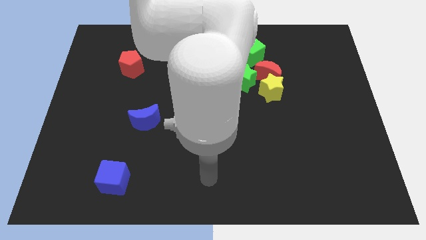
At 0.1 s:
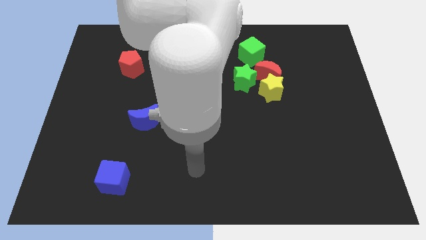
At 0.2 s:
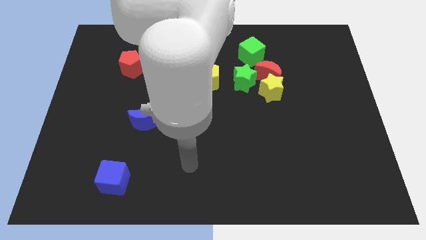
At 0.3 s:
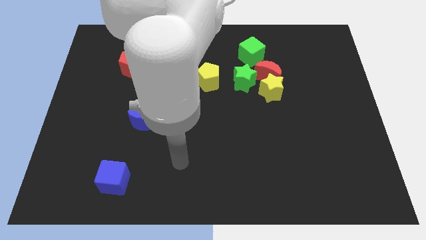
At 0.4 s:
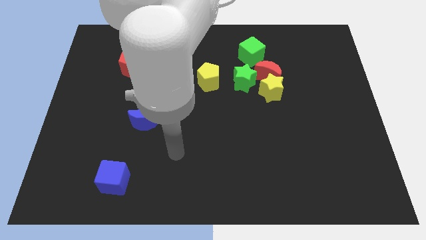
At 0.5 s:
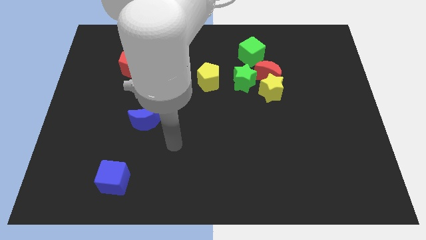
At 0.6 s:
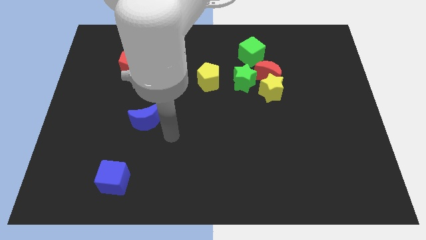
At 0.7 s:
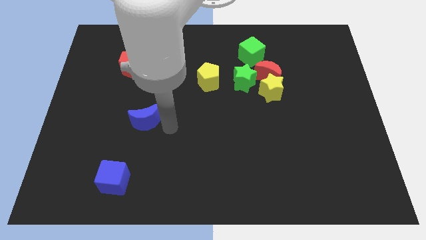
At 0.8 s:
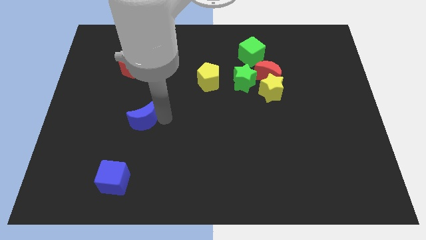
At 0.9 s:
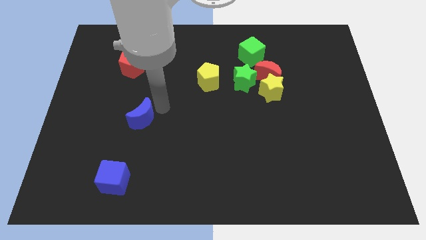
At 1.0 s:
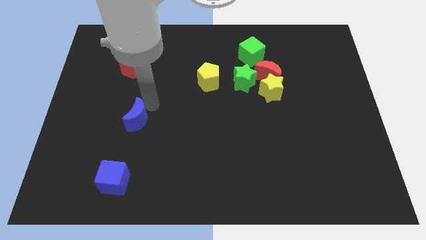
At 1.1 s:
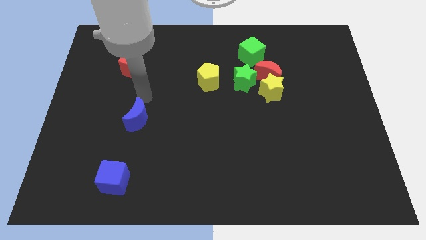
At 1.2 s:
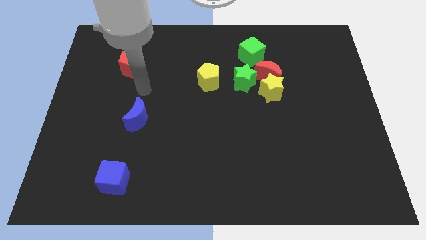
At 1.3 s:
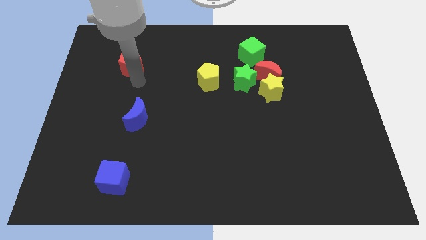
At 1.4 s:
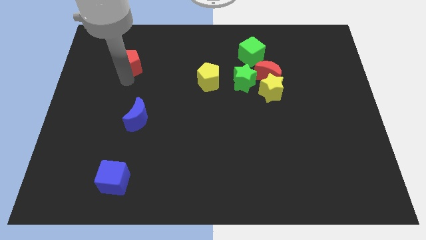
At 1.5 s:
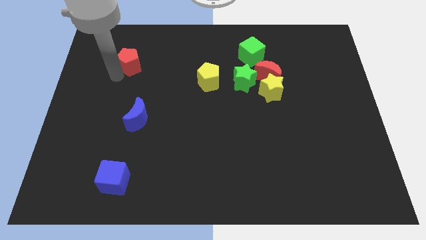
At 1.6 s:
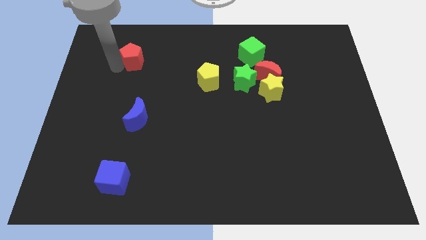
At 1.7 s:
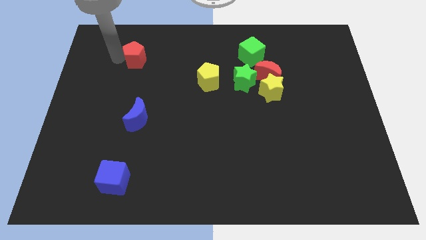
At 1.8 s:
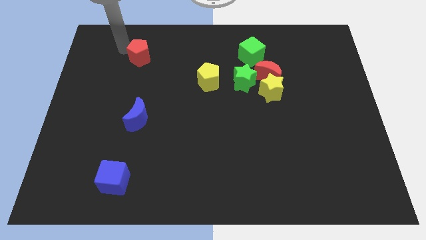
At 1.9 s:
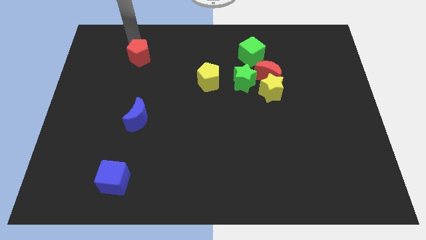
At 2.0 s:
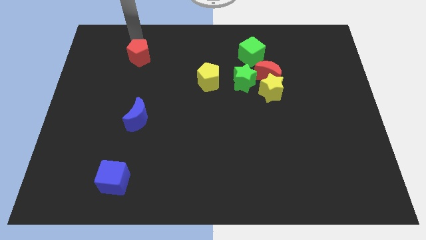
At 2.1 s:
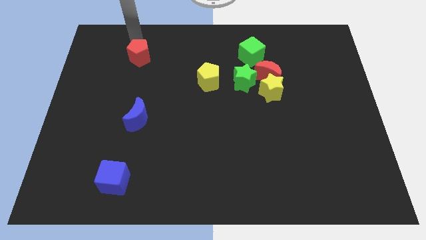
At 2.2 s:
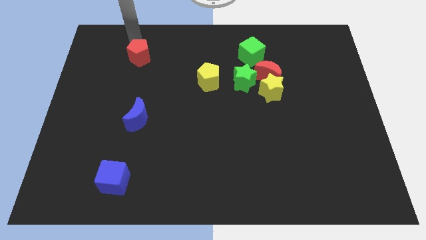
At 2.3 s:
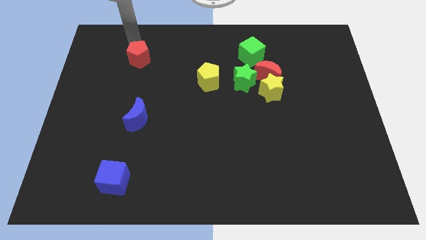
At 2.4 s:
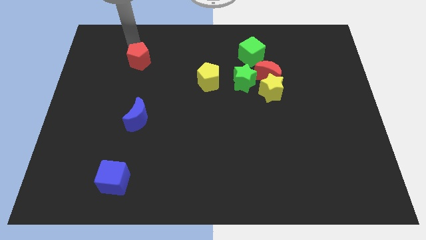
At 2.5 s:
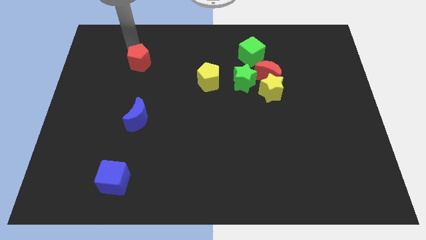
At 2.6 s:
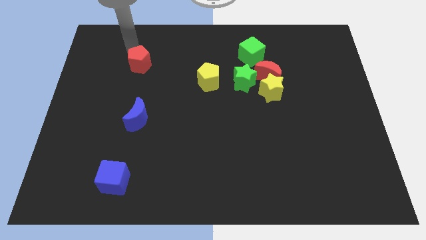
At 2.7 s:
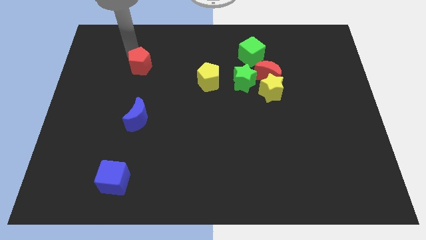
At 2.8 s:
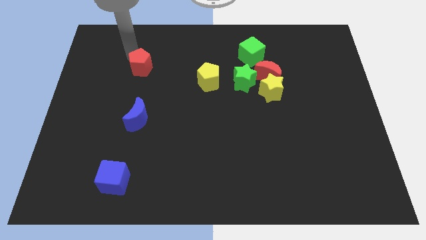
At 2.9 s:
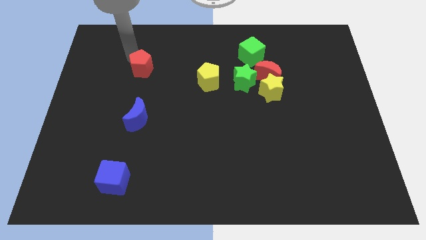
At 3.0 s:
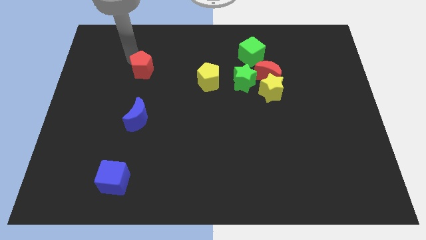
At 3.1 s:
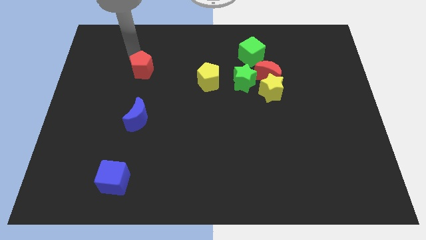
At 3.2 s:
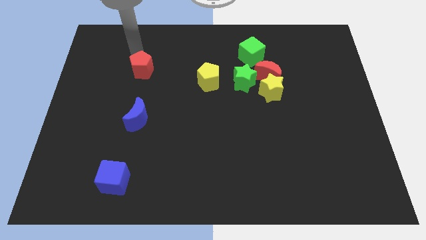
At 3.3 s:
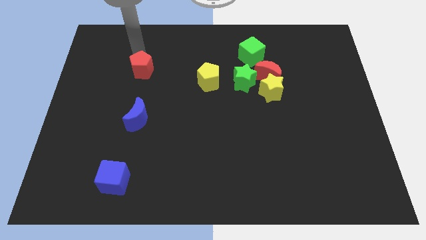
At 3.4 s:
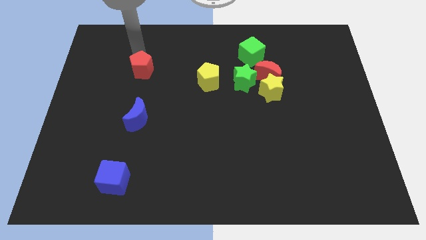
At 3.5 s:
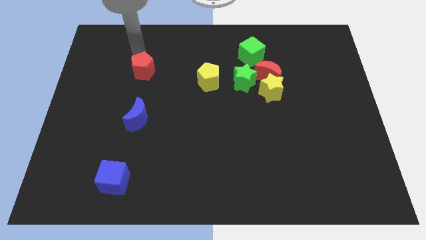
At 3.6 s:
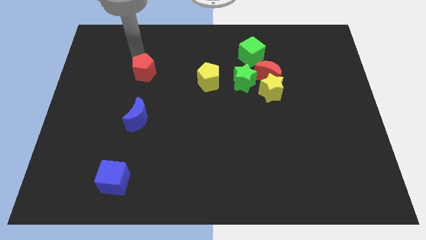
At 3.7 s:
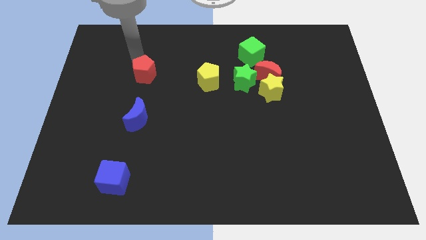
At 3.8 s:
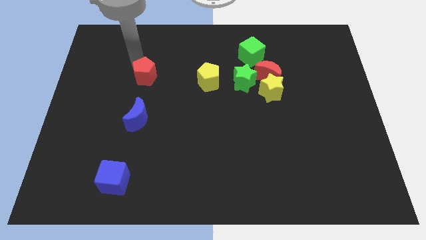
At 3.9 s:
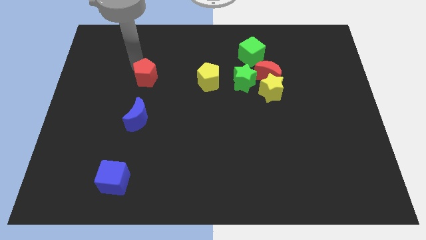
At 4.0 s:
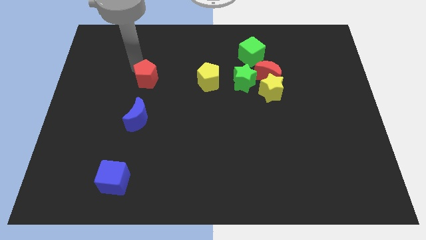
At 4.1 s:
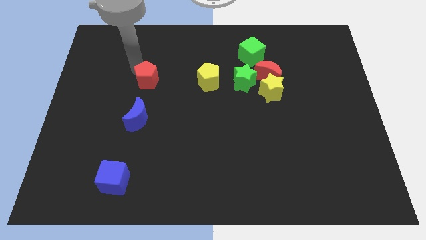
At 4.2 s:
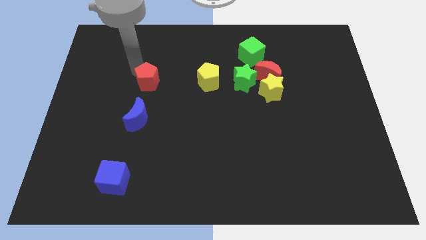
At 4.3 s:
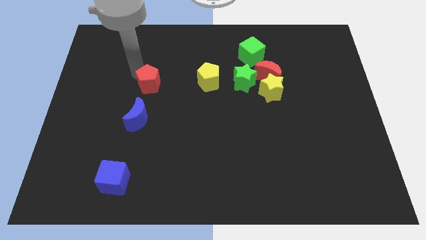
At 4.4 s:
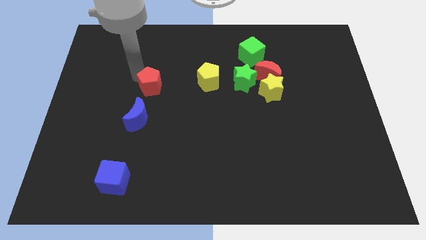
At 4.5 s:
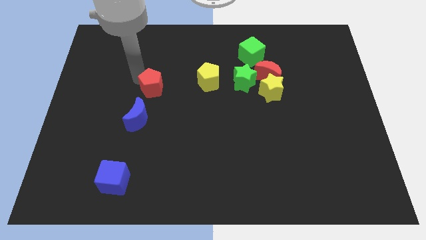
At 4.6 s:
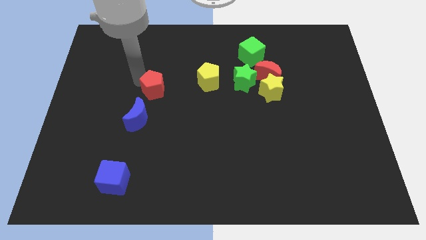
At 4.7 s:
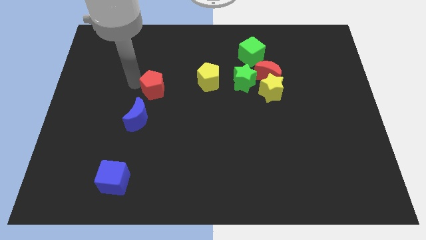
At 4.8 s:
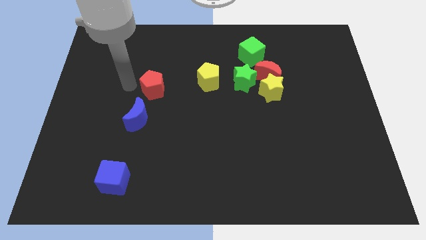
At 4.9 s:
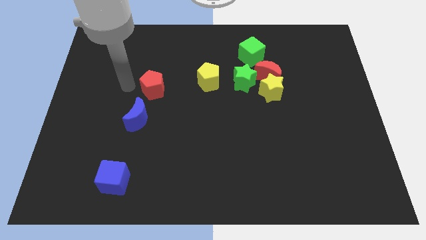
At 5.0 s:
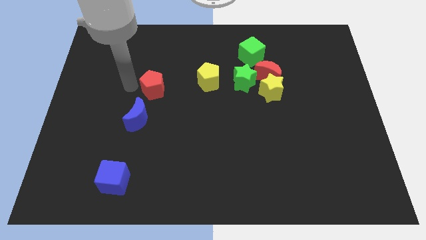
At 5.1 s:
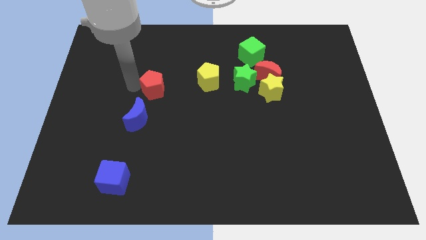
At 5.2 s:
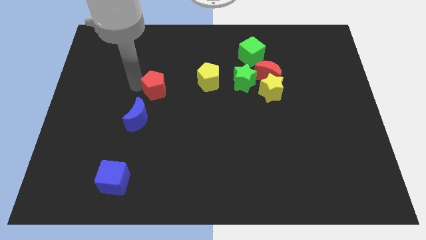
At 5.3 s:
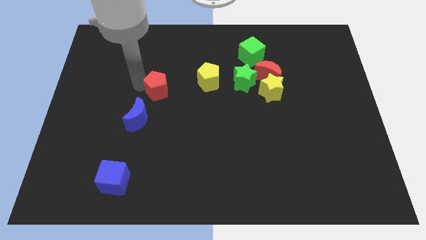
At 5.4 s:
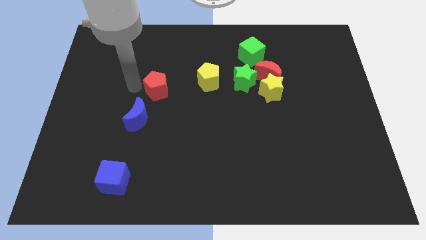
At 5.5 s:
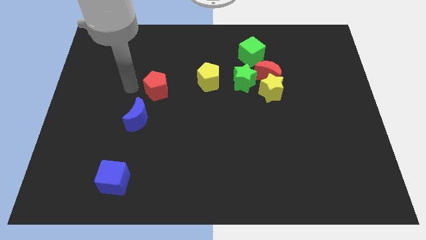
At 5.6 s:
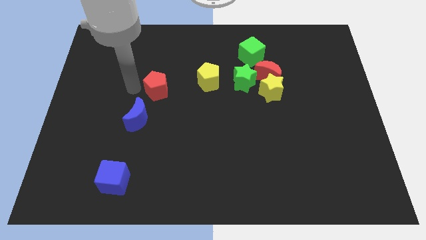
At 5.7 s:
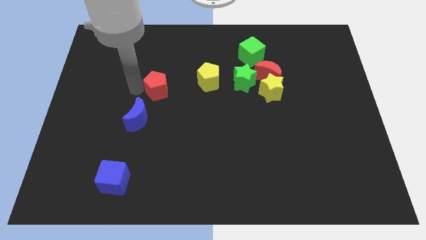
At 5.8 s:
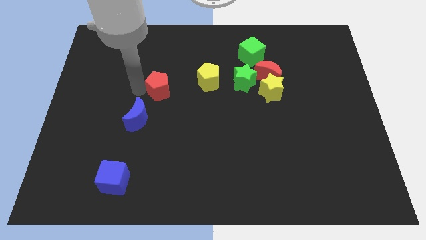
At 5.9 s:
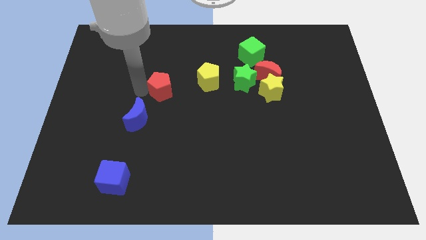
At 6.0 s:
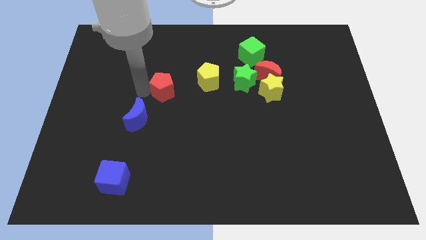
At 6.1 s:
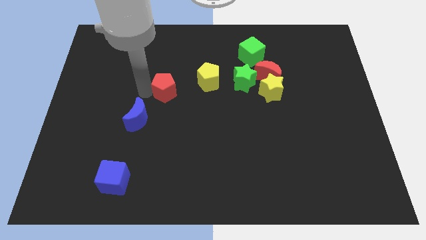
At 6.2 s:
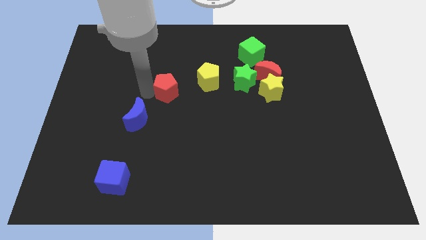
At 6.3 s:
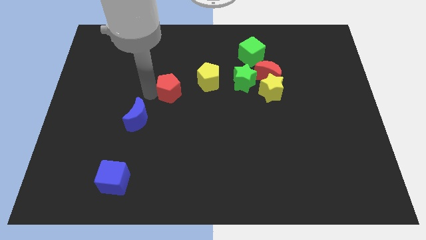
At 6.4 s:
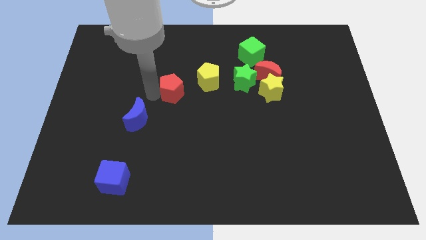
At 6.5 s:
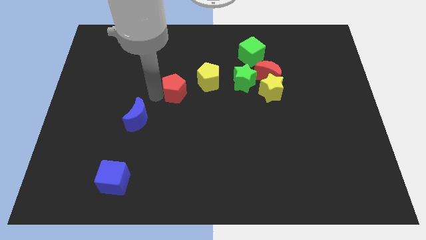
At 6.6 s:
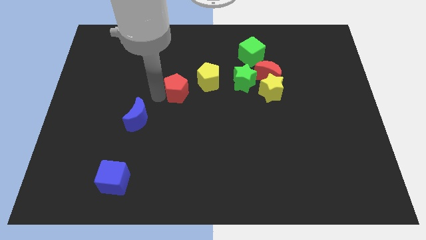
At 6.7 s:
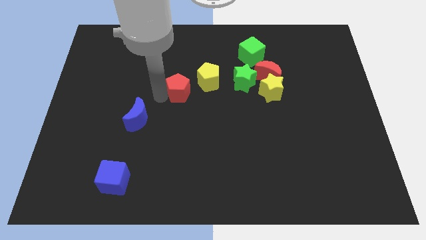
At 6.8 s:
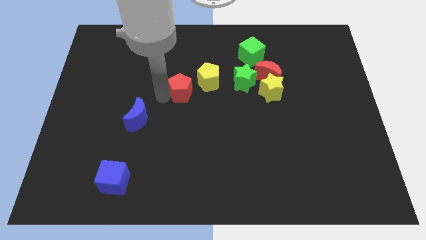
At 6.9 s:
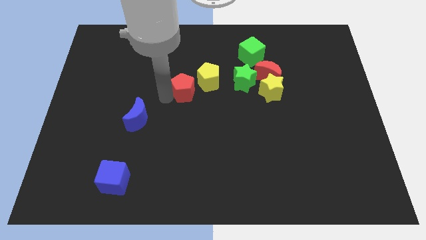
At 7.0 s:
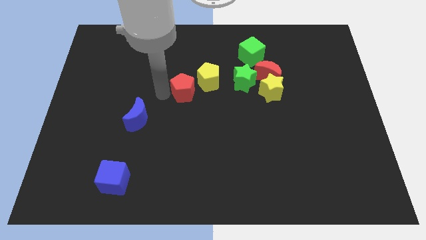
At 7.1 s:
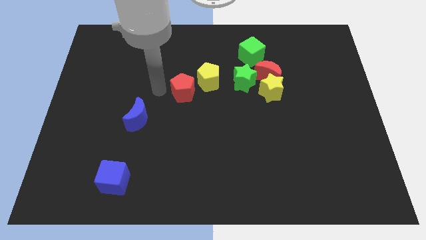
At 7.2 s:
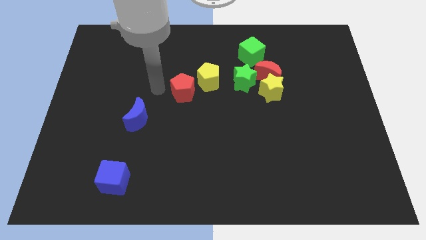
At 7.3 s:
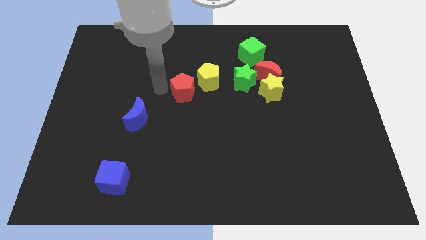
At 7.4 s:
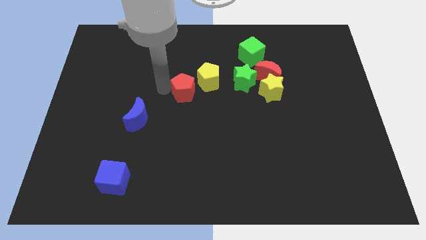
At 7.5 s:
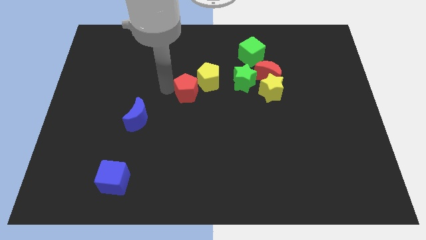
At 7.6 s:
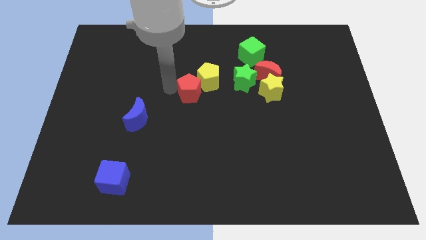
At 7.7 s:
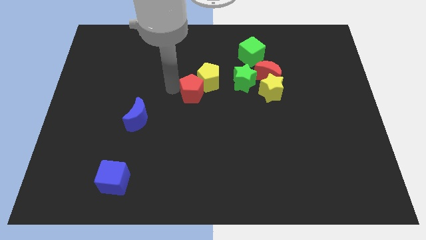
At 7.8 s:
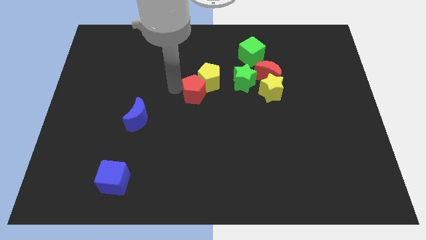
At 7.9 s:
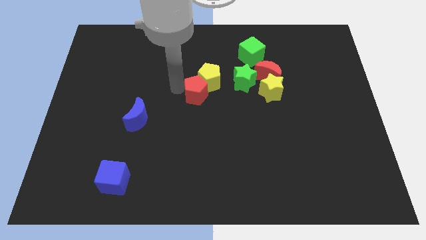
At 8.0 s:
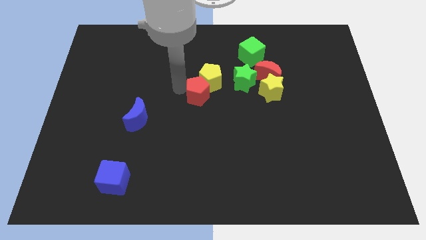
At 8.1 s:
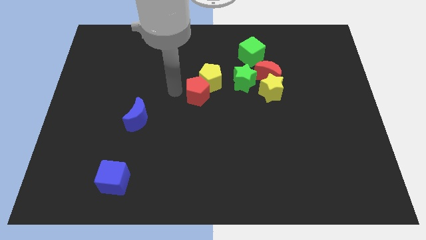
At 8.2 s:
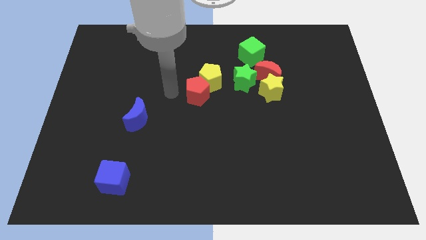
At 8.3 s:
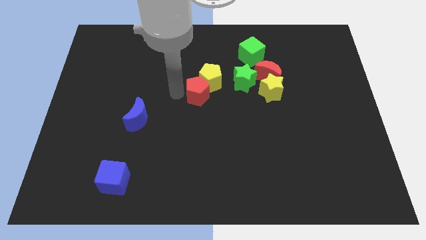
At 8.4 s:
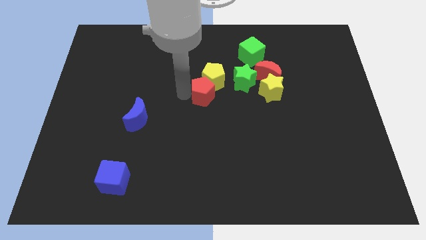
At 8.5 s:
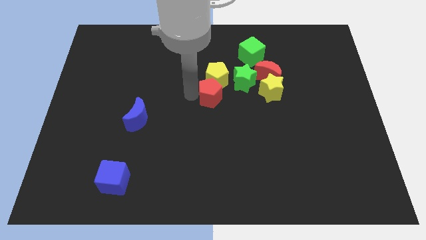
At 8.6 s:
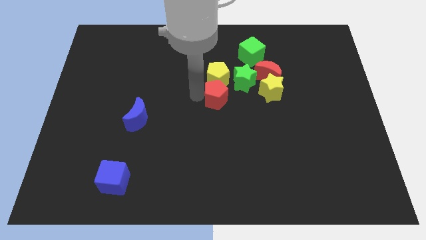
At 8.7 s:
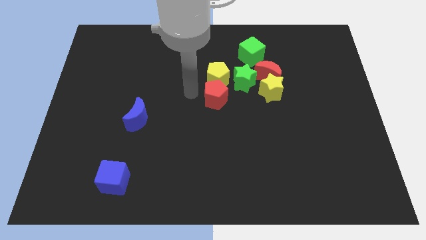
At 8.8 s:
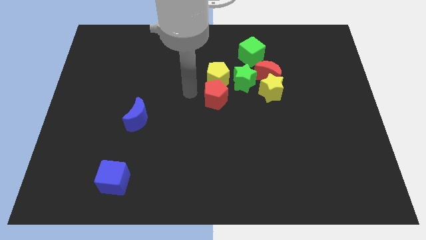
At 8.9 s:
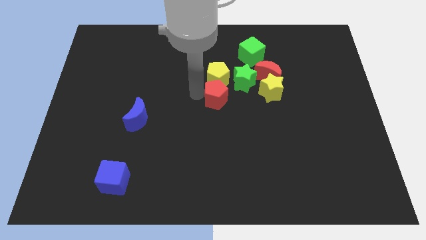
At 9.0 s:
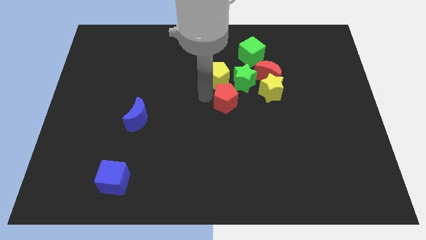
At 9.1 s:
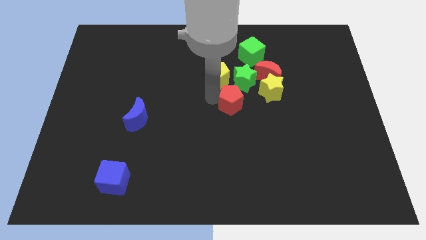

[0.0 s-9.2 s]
move the red pentagon to the bottom left of the yellow star
